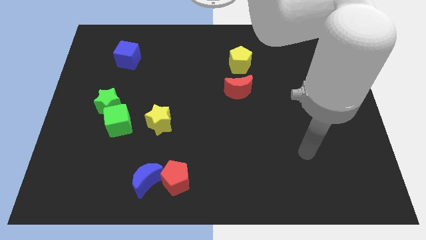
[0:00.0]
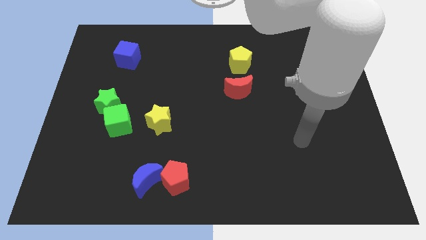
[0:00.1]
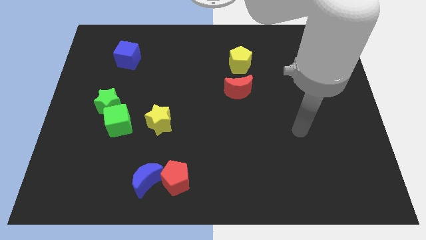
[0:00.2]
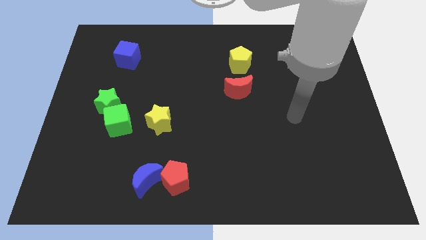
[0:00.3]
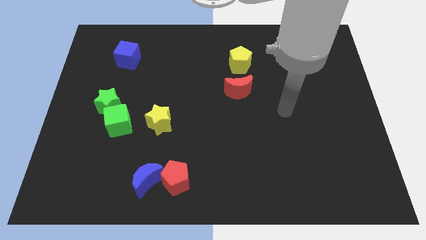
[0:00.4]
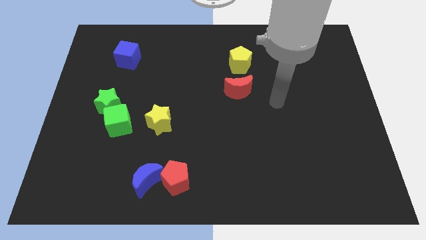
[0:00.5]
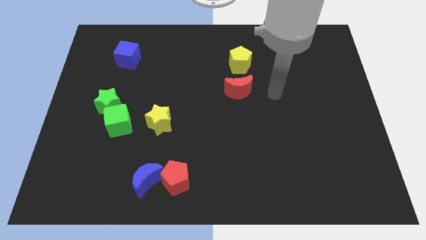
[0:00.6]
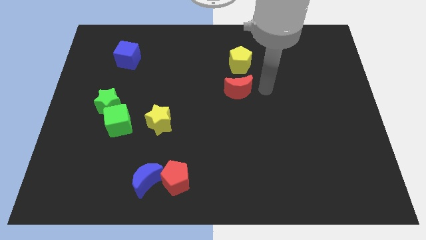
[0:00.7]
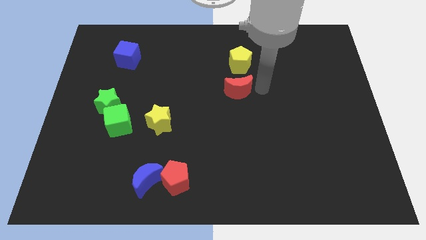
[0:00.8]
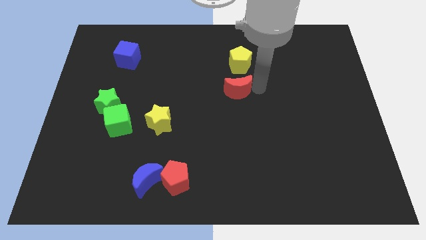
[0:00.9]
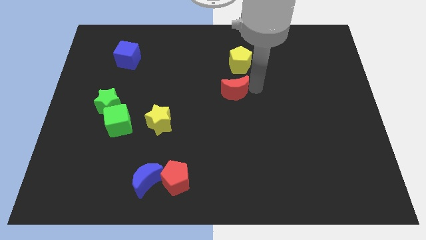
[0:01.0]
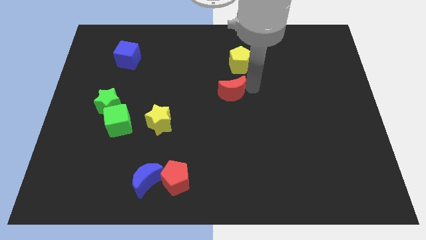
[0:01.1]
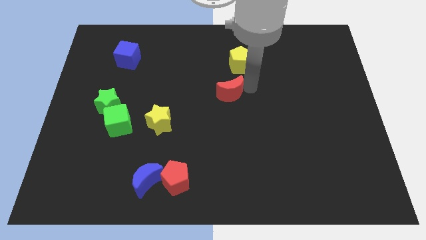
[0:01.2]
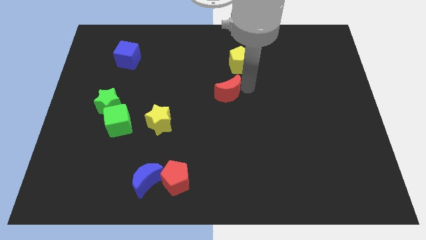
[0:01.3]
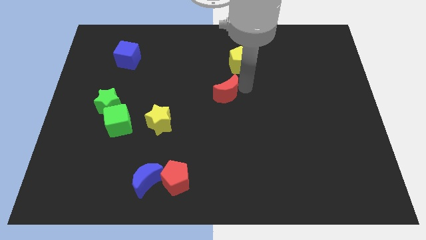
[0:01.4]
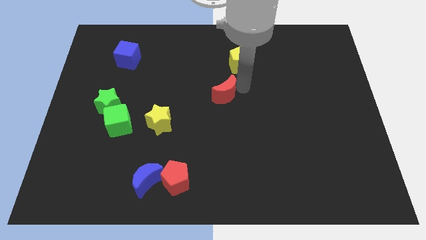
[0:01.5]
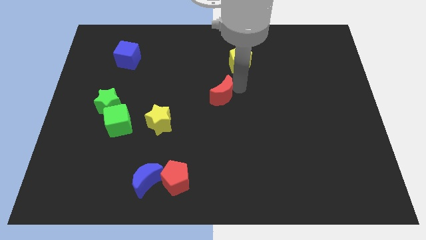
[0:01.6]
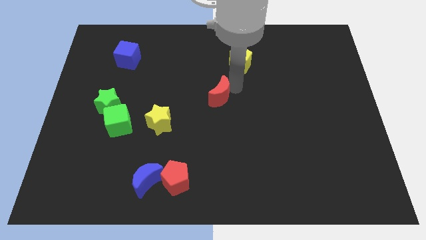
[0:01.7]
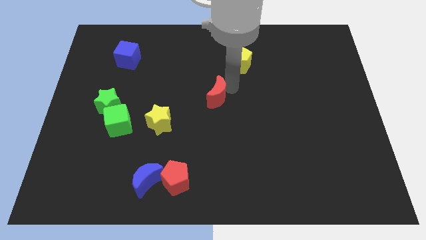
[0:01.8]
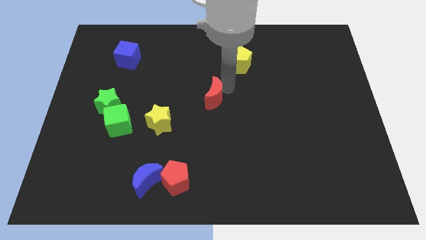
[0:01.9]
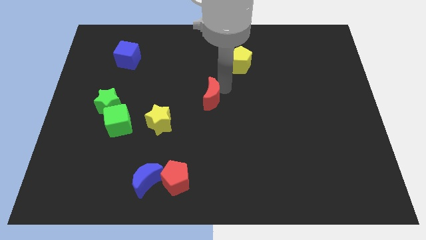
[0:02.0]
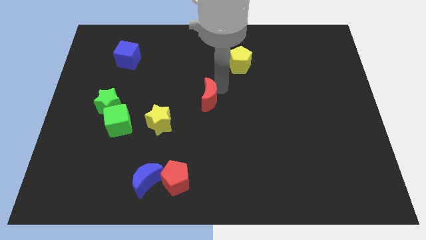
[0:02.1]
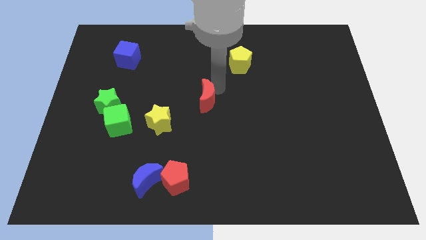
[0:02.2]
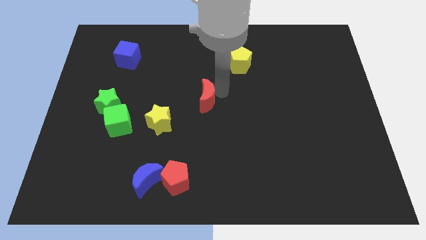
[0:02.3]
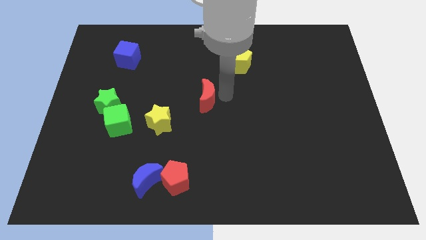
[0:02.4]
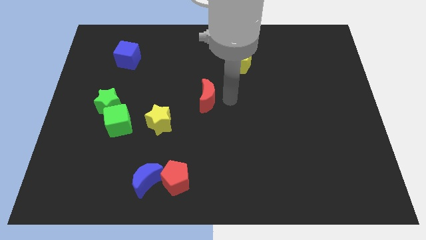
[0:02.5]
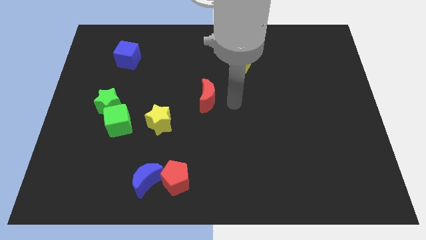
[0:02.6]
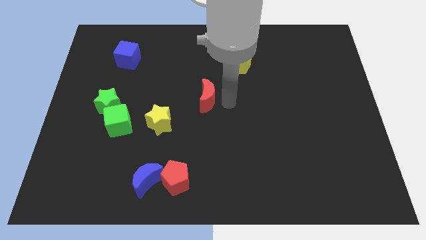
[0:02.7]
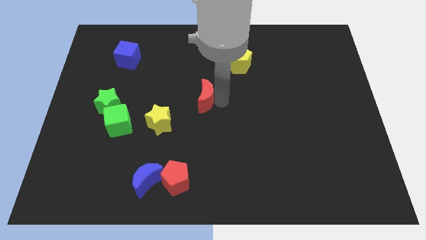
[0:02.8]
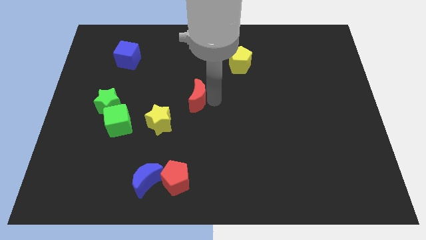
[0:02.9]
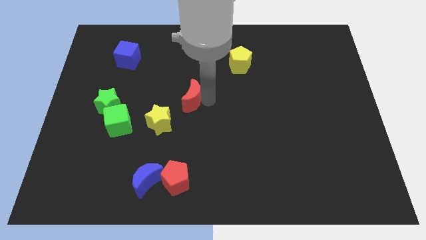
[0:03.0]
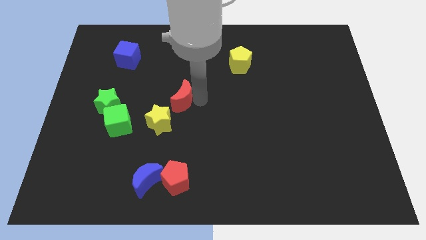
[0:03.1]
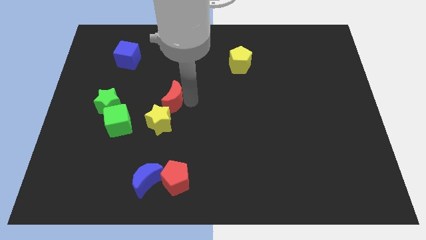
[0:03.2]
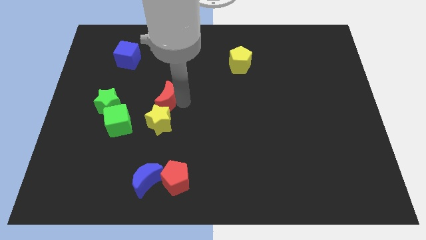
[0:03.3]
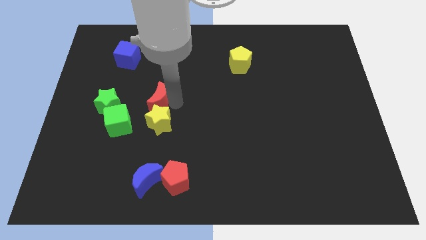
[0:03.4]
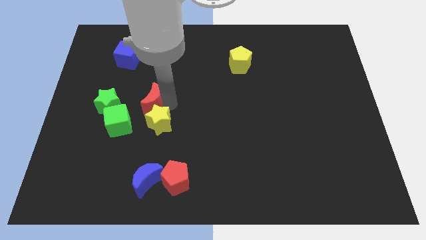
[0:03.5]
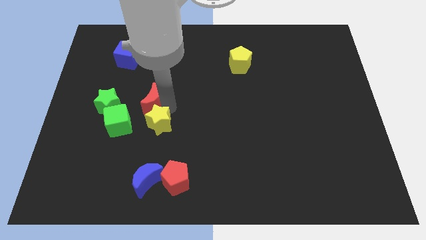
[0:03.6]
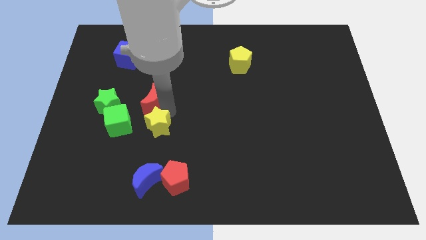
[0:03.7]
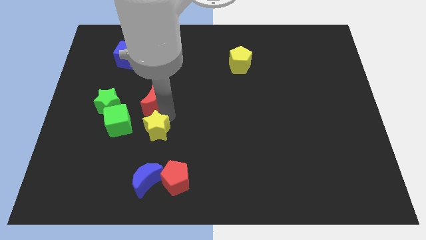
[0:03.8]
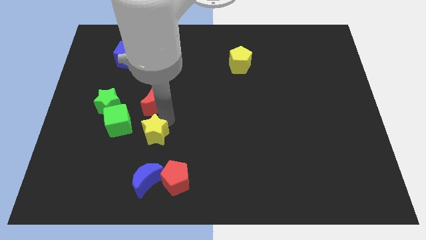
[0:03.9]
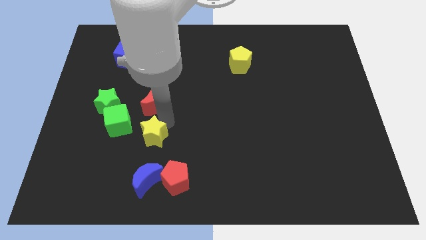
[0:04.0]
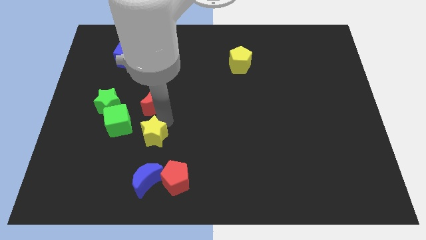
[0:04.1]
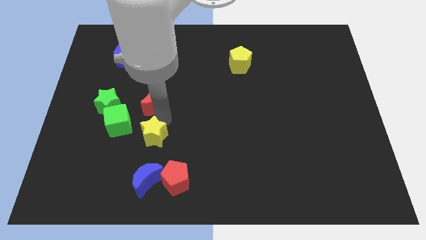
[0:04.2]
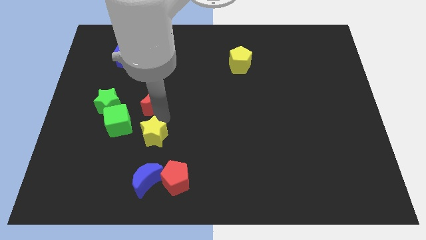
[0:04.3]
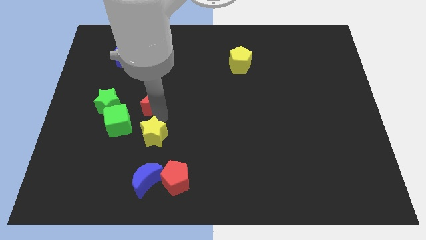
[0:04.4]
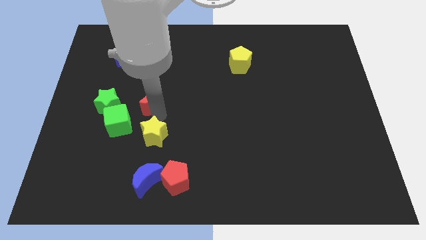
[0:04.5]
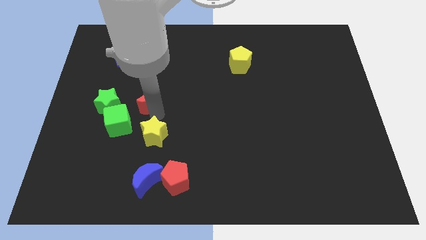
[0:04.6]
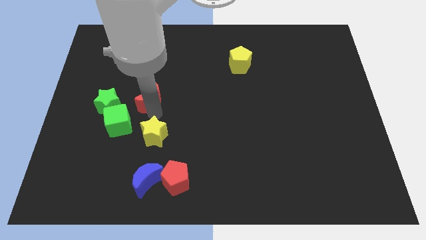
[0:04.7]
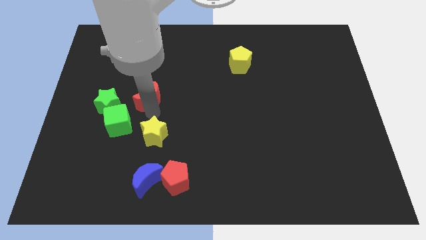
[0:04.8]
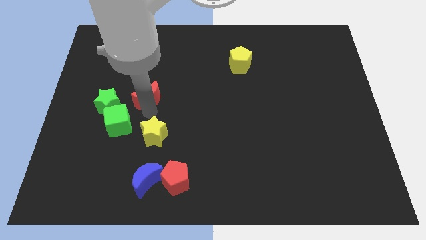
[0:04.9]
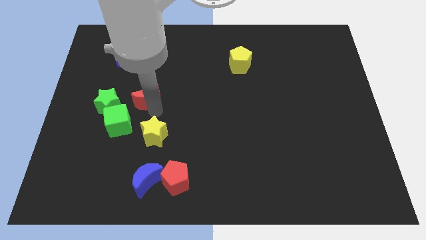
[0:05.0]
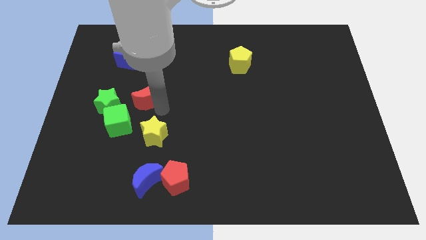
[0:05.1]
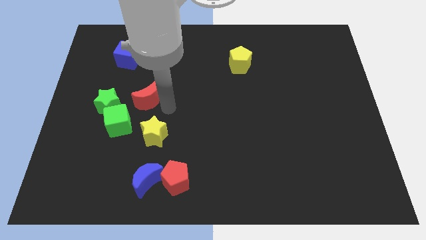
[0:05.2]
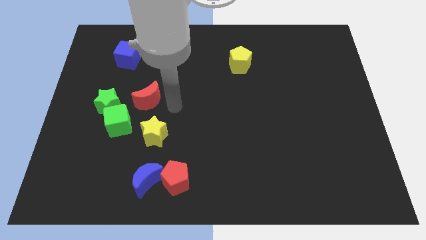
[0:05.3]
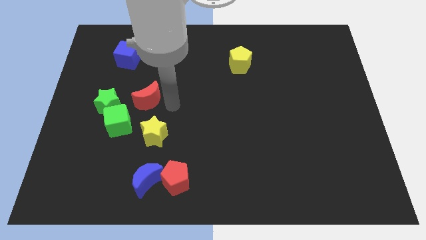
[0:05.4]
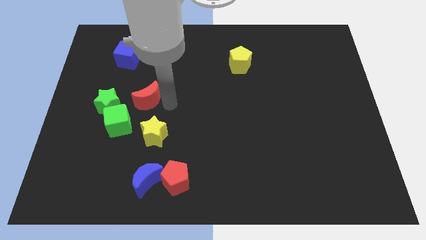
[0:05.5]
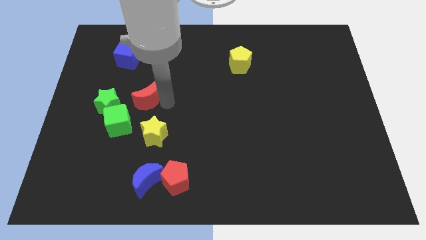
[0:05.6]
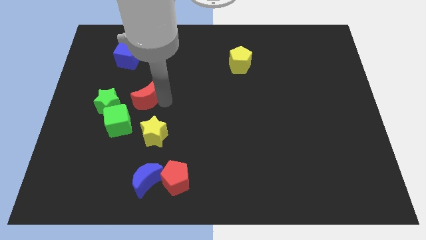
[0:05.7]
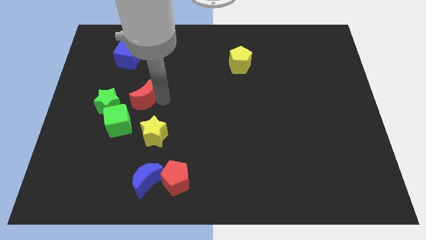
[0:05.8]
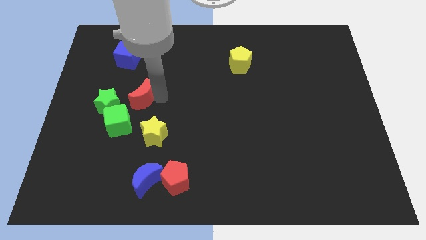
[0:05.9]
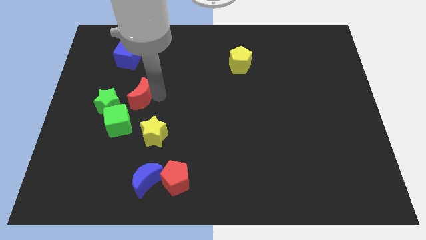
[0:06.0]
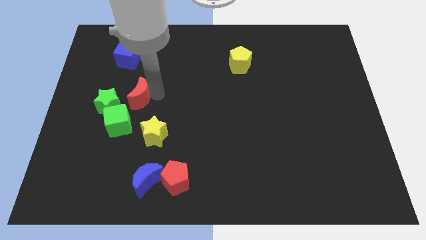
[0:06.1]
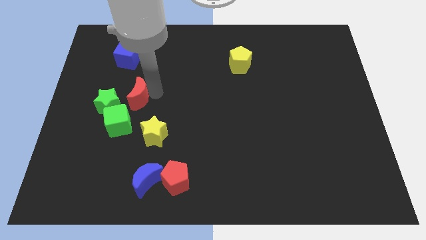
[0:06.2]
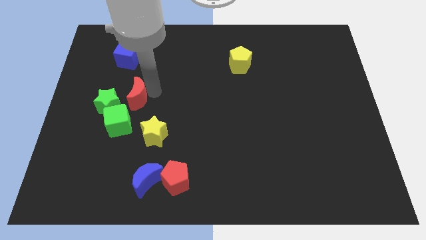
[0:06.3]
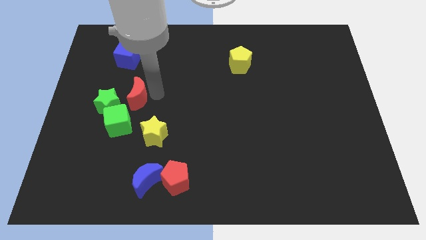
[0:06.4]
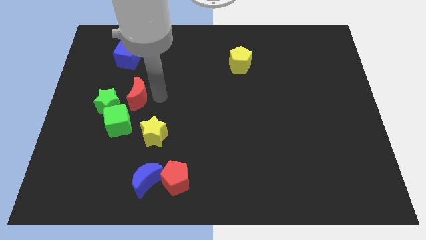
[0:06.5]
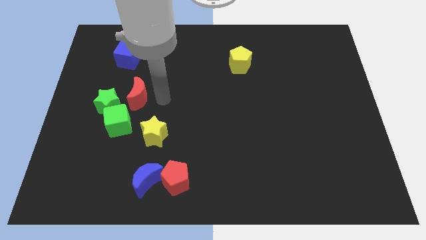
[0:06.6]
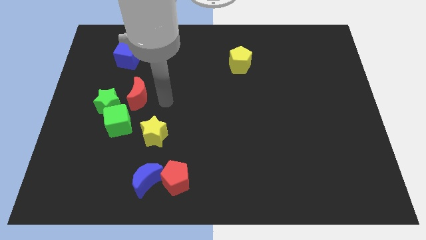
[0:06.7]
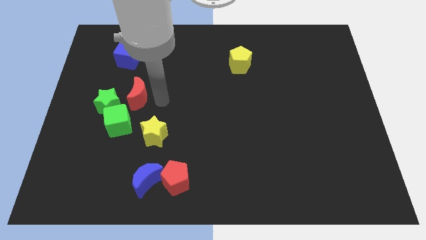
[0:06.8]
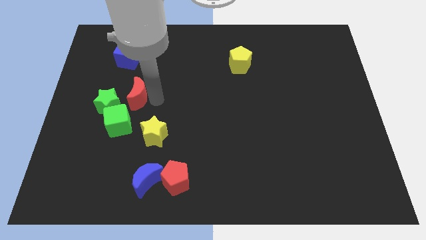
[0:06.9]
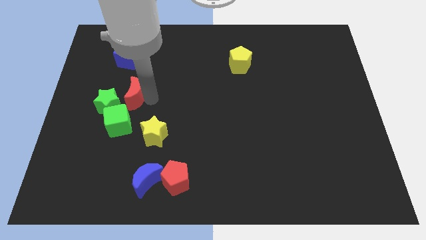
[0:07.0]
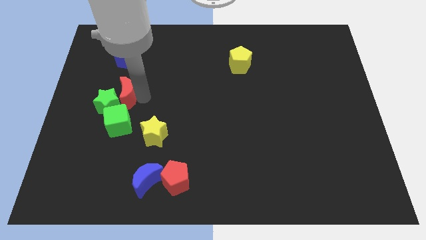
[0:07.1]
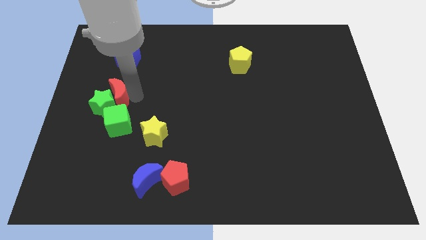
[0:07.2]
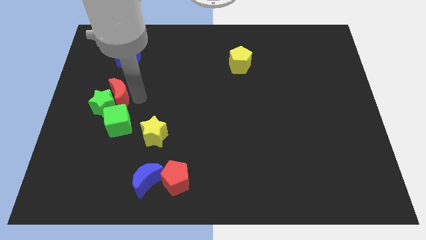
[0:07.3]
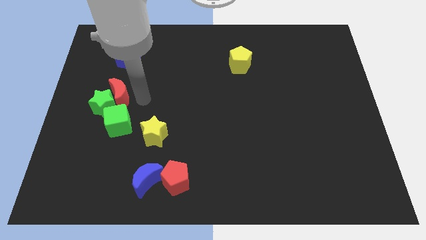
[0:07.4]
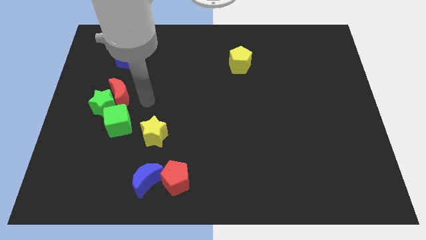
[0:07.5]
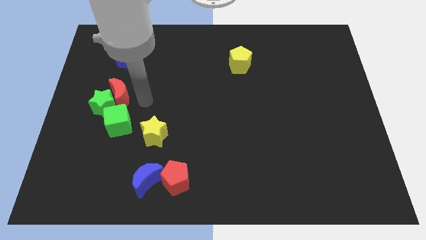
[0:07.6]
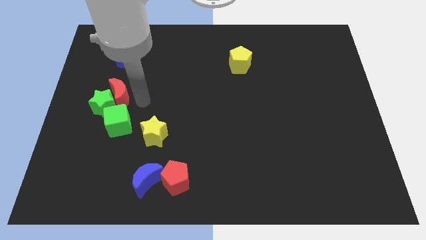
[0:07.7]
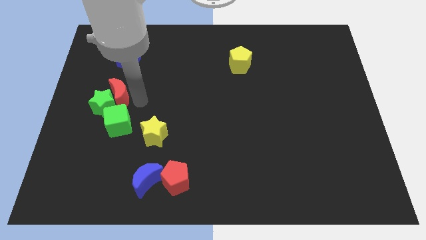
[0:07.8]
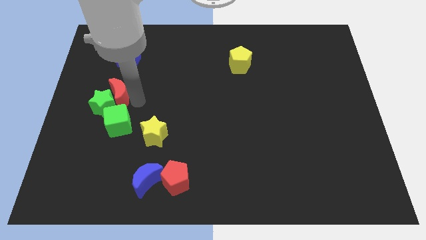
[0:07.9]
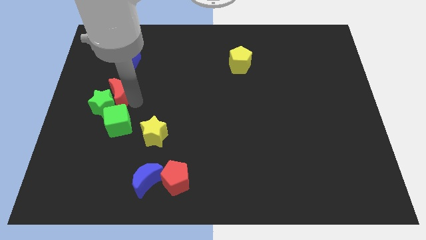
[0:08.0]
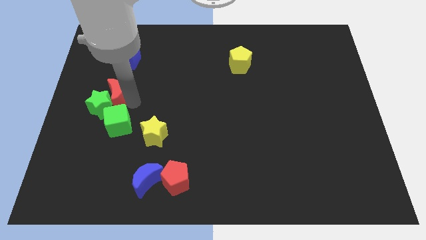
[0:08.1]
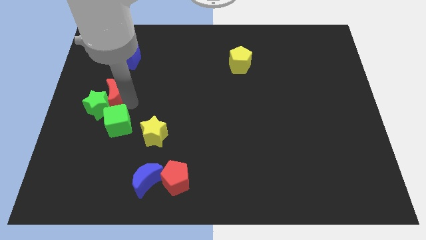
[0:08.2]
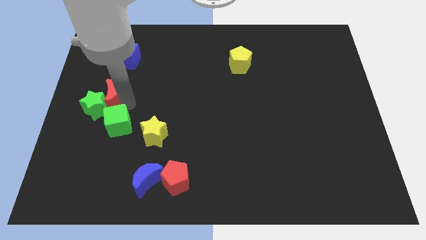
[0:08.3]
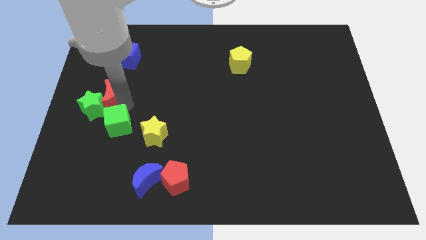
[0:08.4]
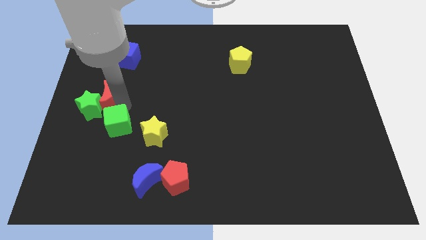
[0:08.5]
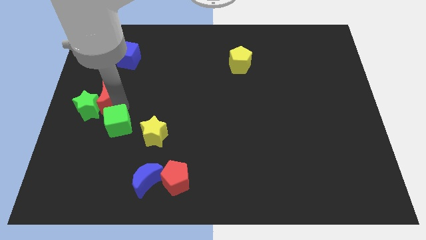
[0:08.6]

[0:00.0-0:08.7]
move the red moon to the center left
